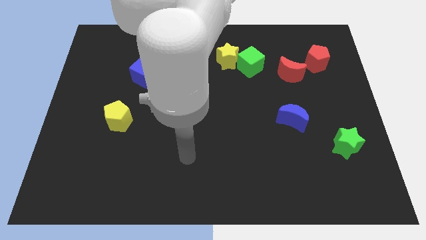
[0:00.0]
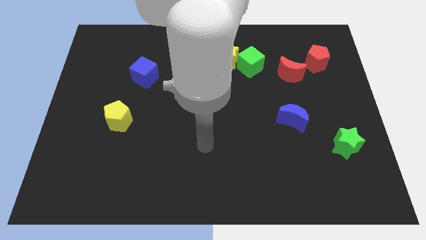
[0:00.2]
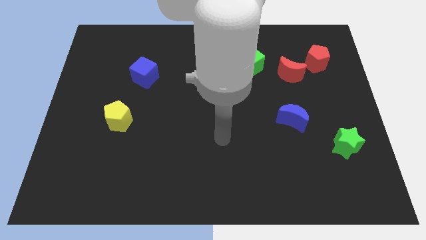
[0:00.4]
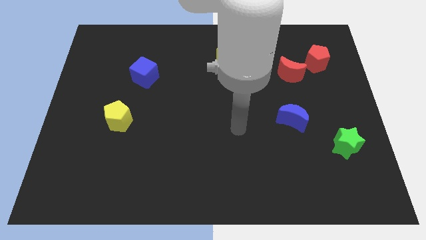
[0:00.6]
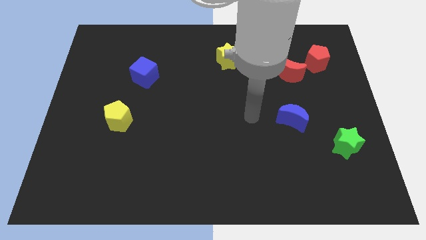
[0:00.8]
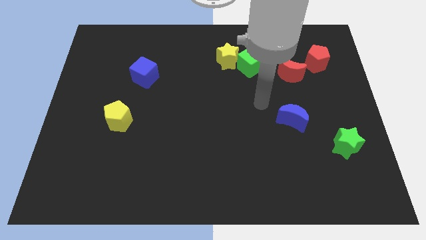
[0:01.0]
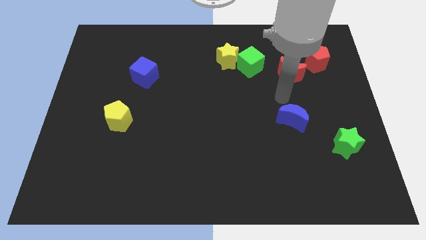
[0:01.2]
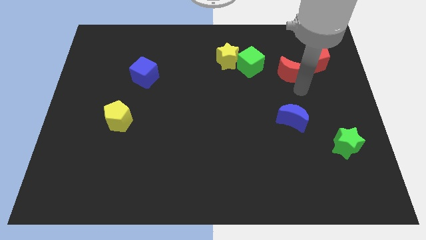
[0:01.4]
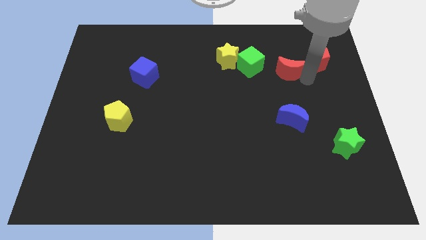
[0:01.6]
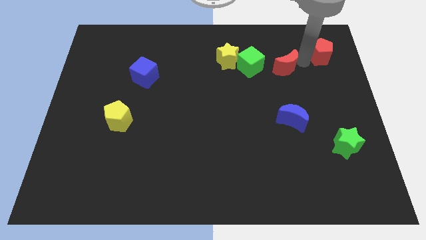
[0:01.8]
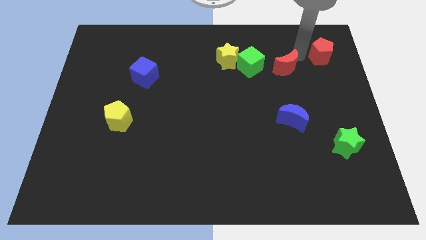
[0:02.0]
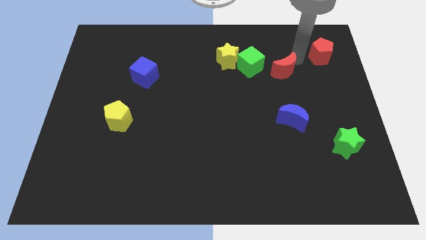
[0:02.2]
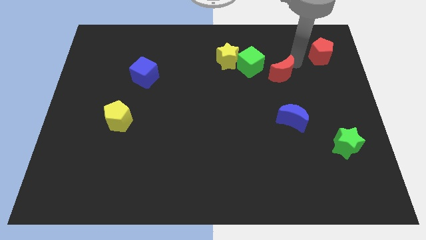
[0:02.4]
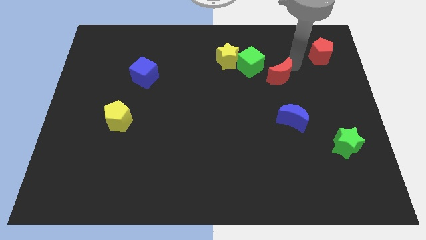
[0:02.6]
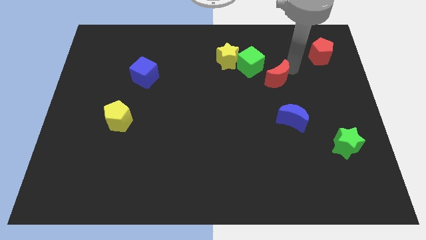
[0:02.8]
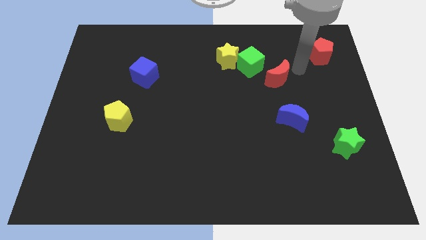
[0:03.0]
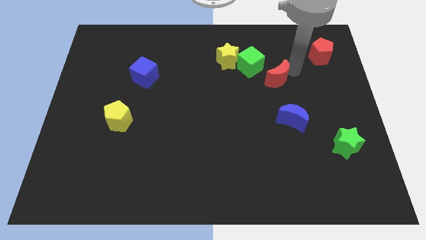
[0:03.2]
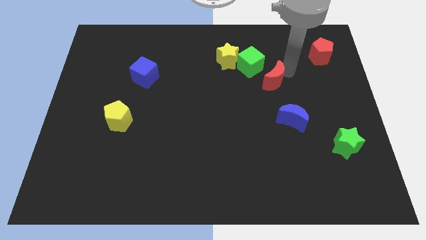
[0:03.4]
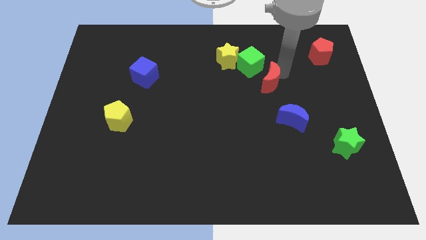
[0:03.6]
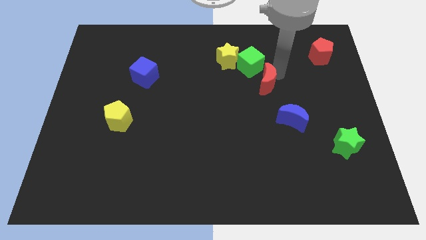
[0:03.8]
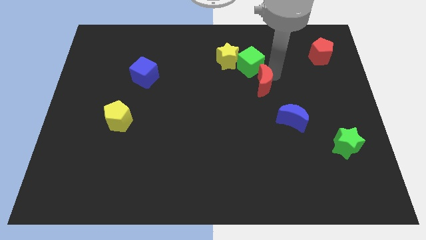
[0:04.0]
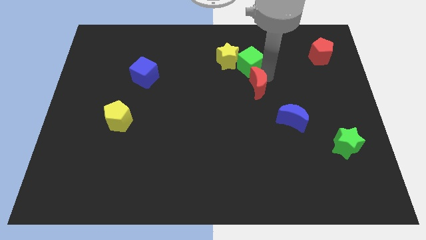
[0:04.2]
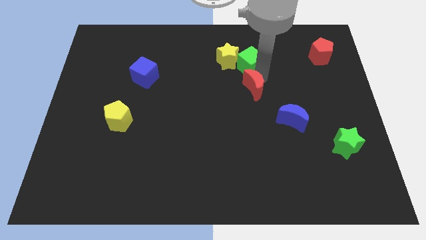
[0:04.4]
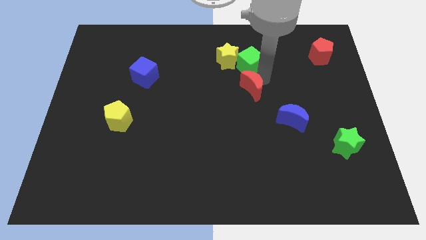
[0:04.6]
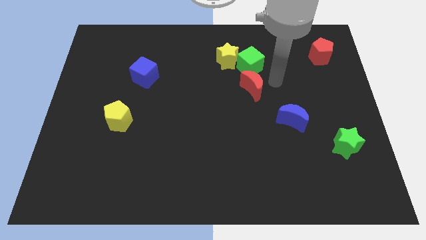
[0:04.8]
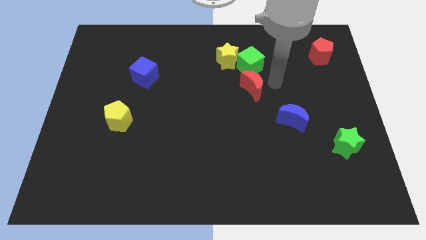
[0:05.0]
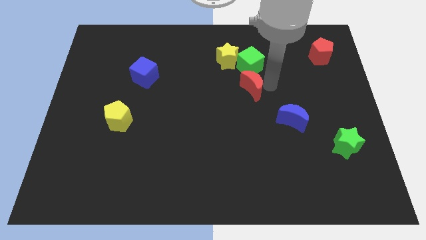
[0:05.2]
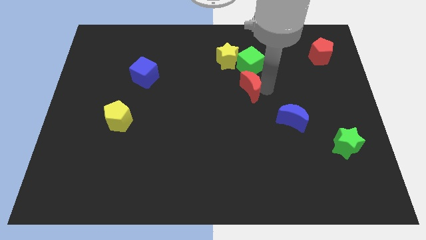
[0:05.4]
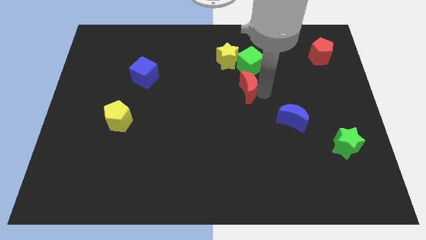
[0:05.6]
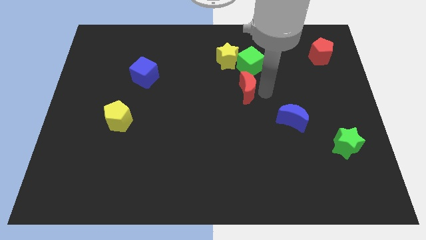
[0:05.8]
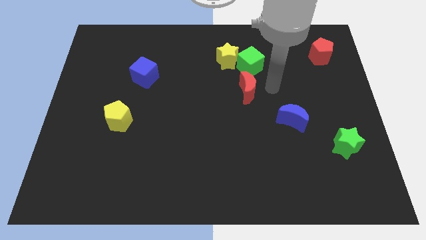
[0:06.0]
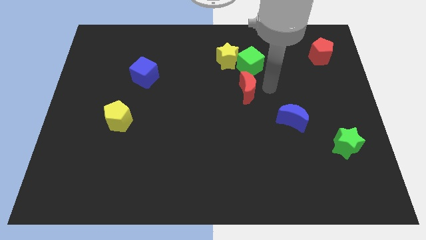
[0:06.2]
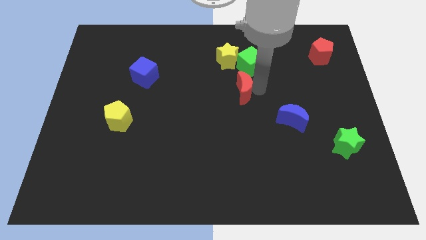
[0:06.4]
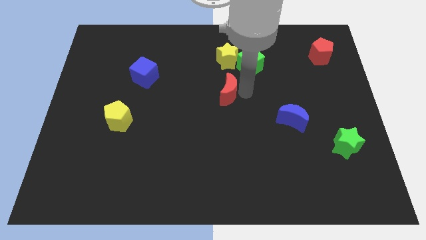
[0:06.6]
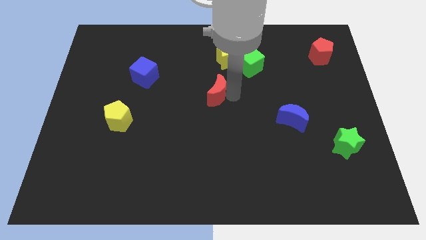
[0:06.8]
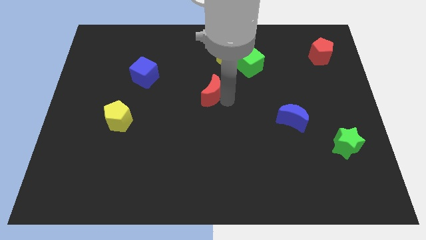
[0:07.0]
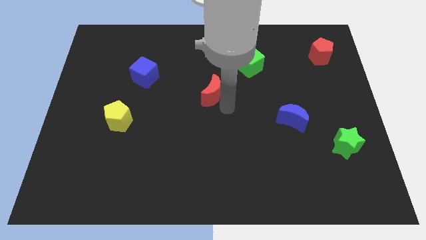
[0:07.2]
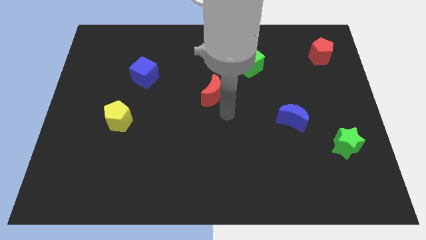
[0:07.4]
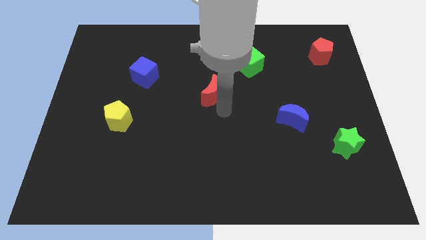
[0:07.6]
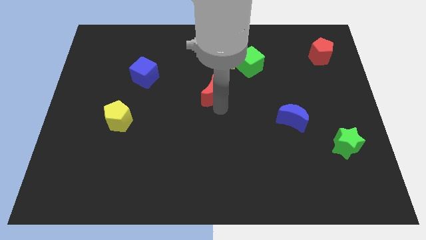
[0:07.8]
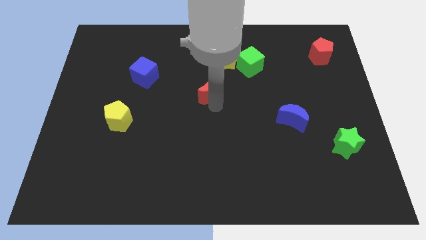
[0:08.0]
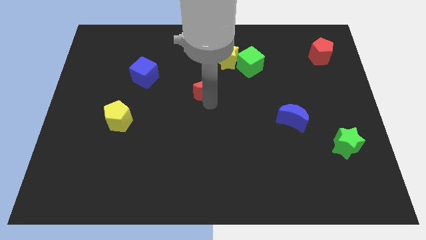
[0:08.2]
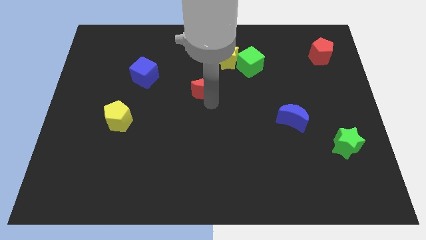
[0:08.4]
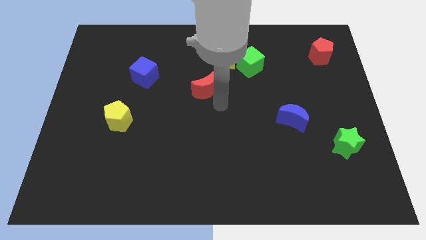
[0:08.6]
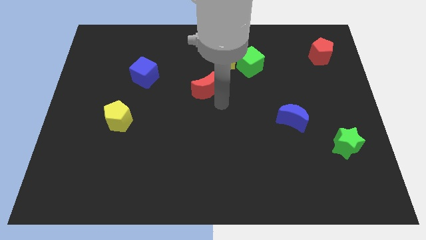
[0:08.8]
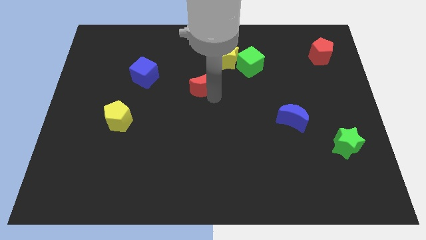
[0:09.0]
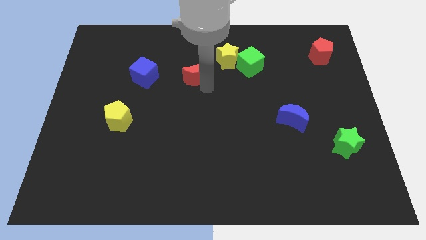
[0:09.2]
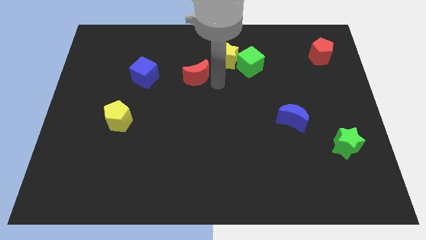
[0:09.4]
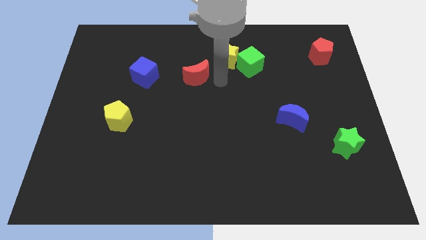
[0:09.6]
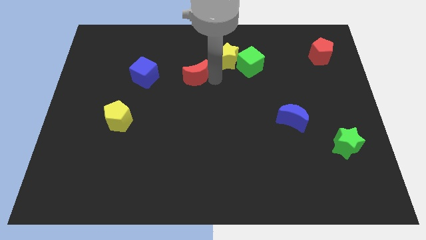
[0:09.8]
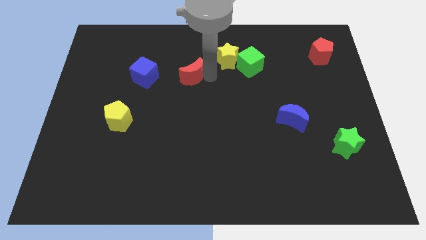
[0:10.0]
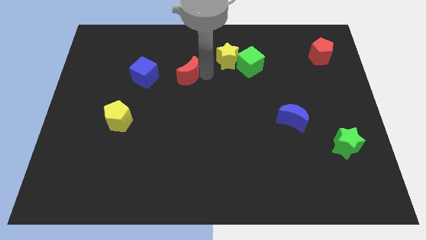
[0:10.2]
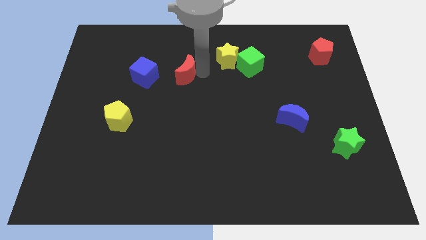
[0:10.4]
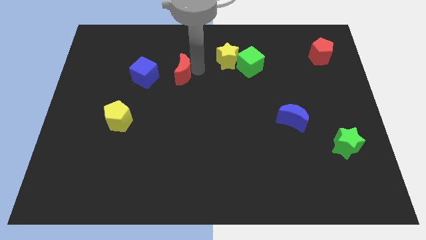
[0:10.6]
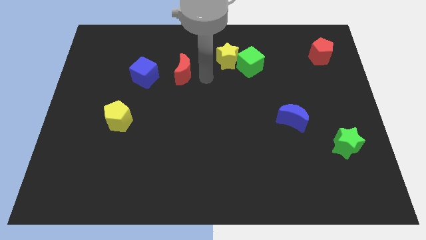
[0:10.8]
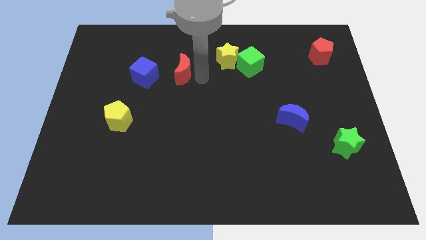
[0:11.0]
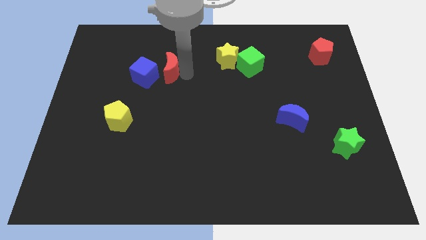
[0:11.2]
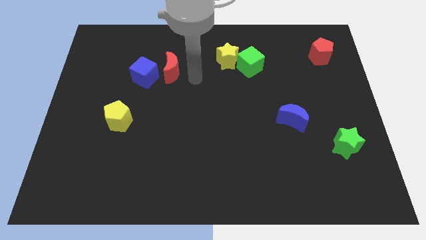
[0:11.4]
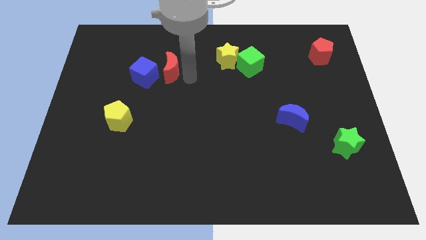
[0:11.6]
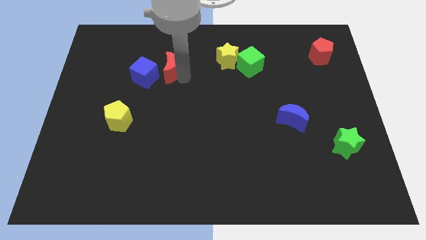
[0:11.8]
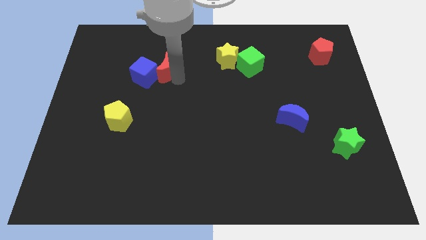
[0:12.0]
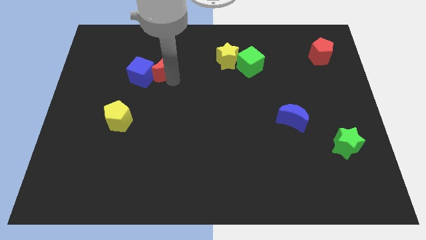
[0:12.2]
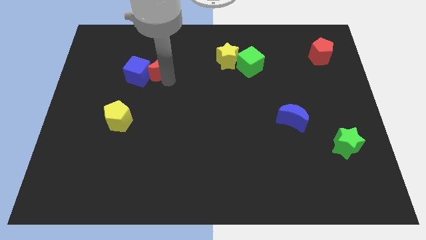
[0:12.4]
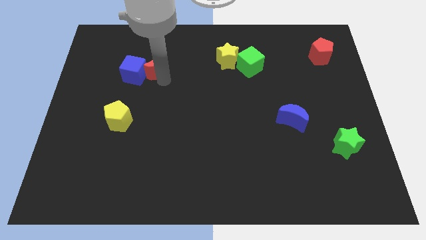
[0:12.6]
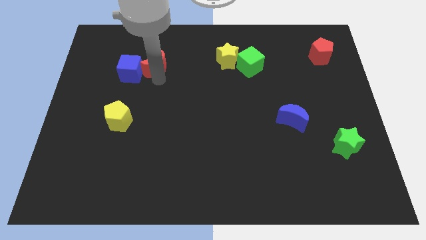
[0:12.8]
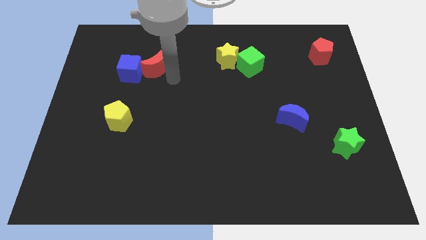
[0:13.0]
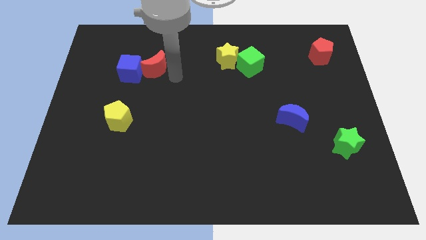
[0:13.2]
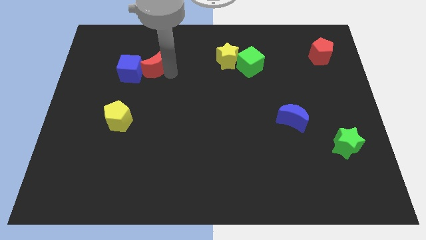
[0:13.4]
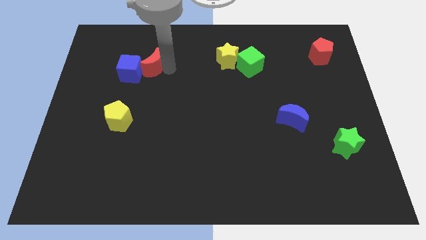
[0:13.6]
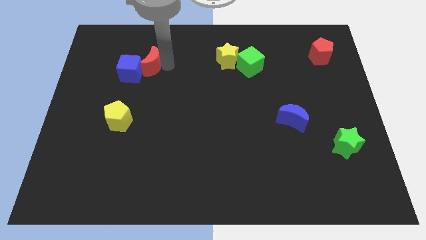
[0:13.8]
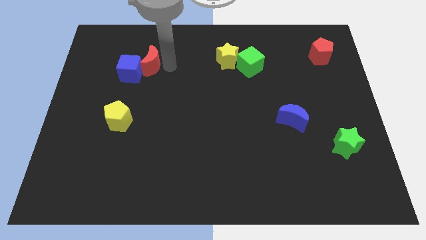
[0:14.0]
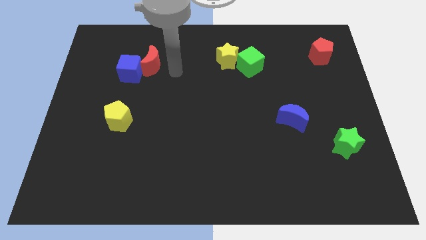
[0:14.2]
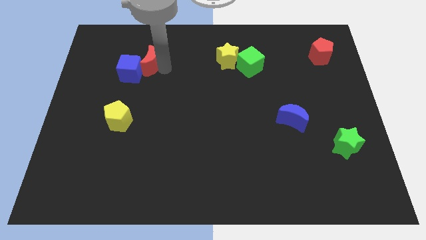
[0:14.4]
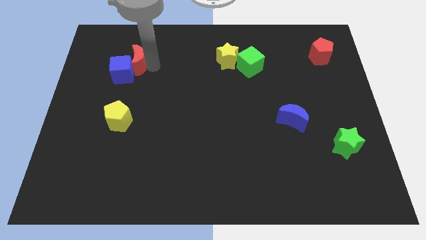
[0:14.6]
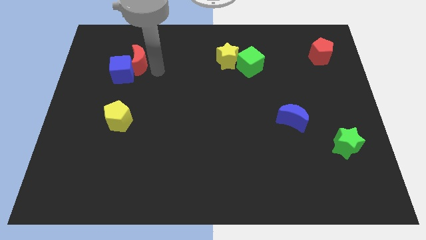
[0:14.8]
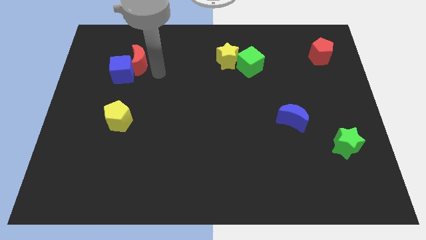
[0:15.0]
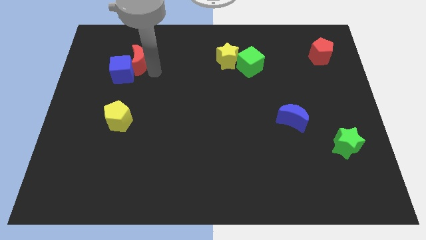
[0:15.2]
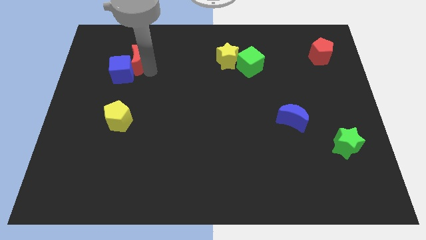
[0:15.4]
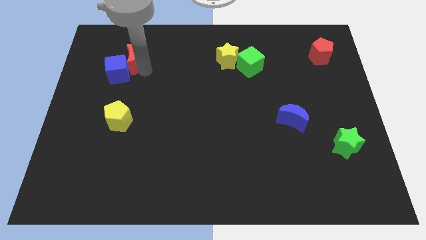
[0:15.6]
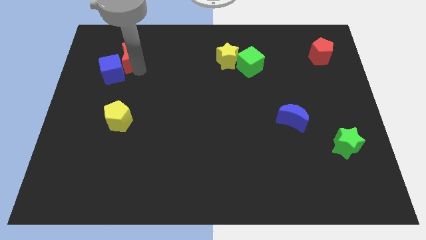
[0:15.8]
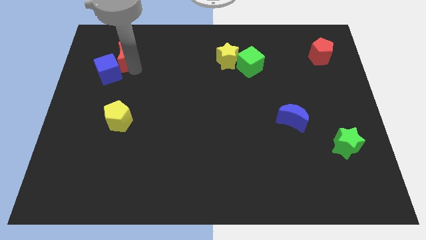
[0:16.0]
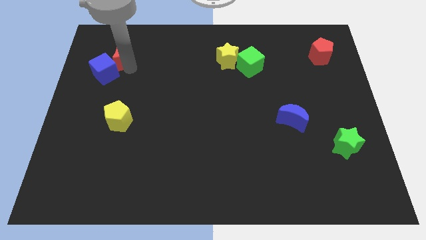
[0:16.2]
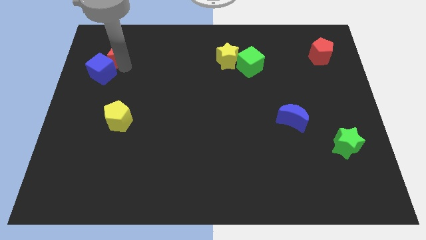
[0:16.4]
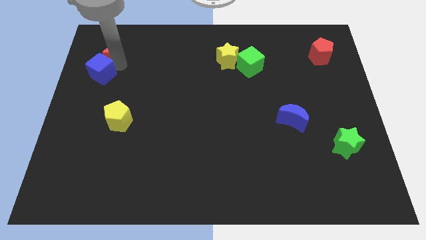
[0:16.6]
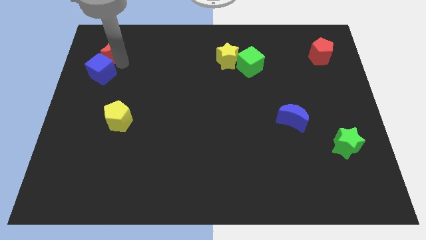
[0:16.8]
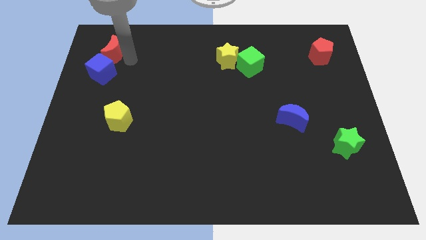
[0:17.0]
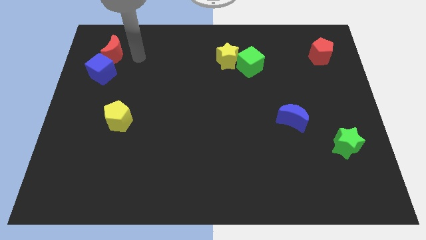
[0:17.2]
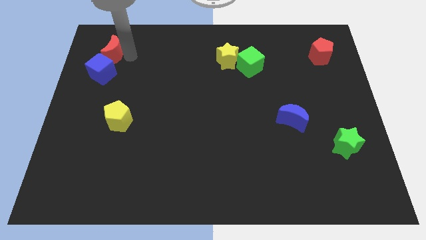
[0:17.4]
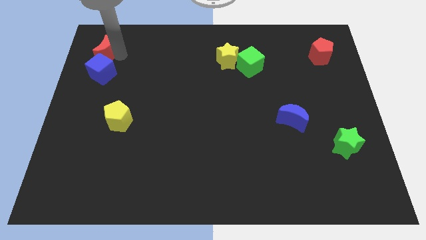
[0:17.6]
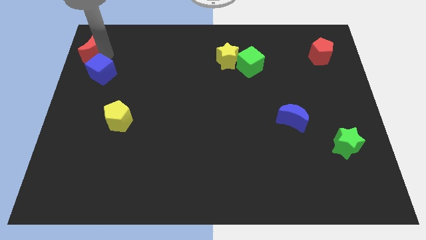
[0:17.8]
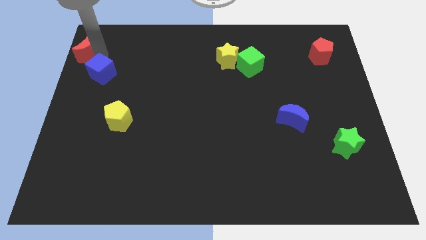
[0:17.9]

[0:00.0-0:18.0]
slide the red moon to the top left corner
